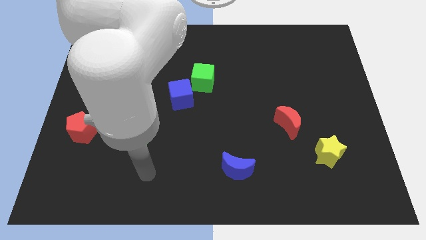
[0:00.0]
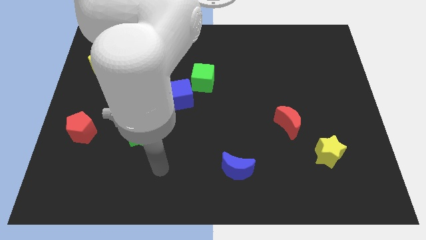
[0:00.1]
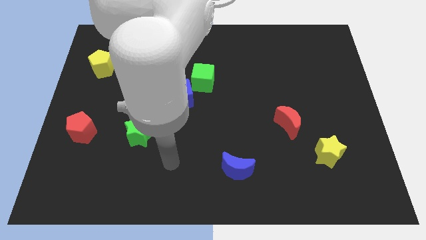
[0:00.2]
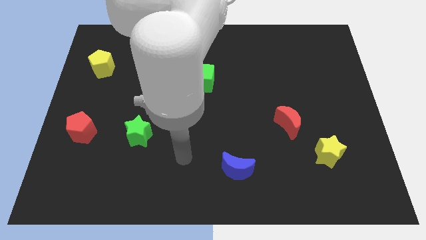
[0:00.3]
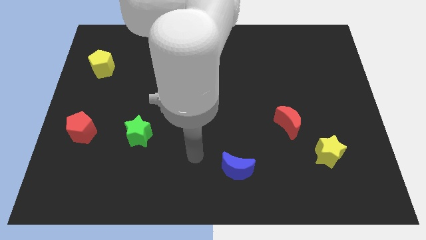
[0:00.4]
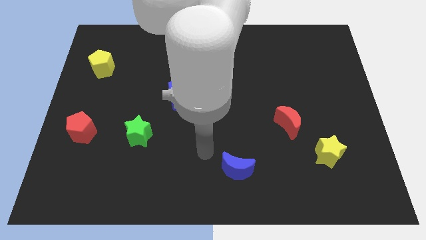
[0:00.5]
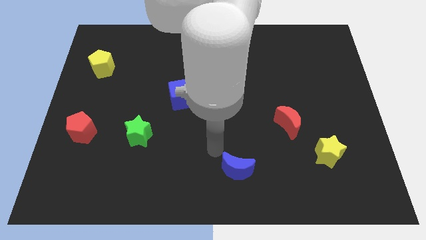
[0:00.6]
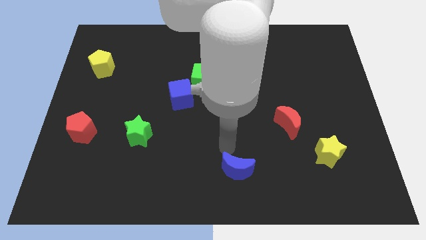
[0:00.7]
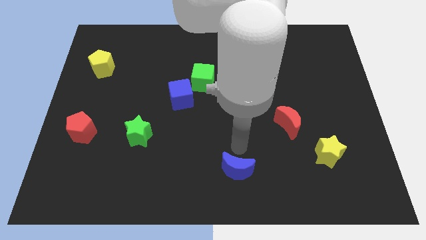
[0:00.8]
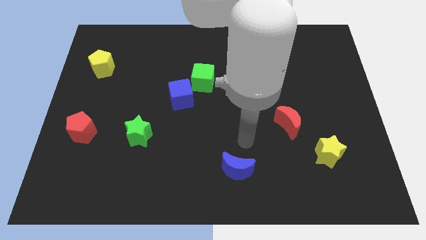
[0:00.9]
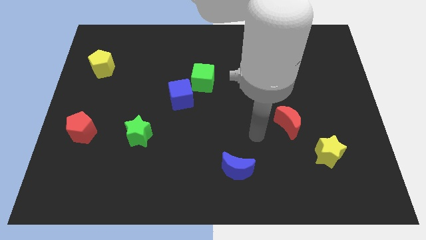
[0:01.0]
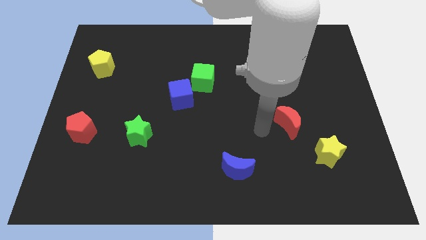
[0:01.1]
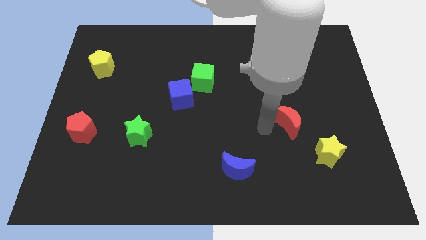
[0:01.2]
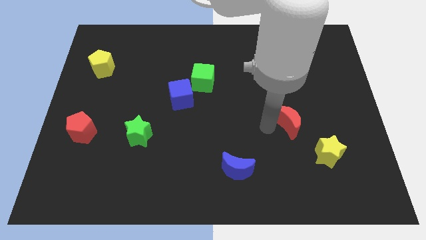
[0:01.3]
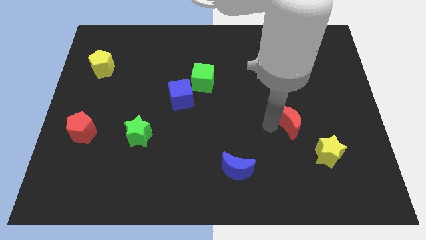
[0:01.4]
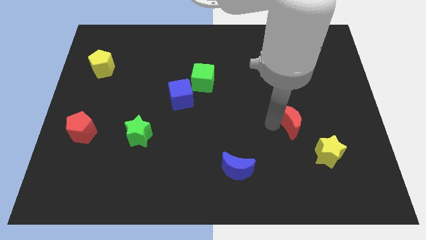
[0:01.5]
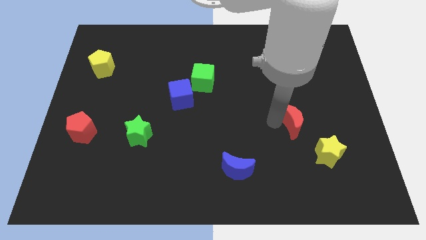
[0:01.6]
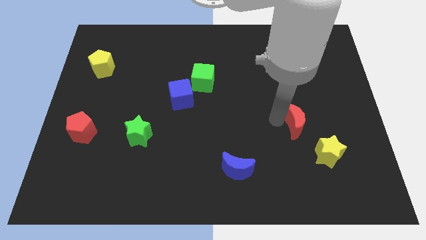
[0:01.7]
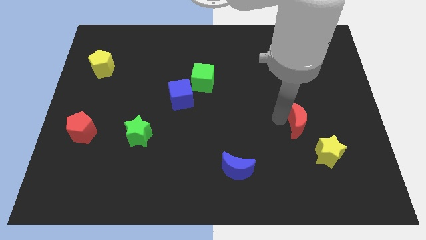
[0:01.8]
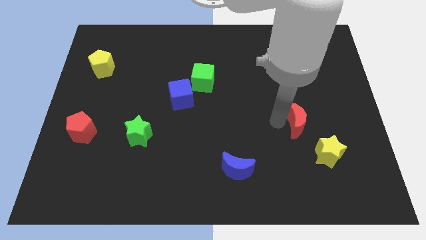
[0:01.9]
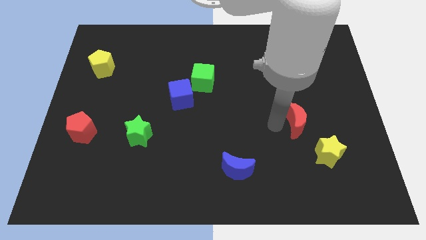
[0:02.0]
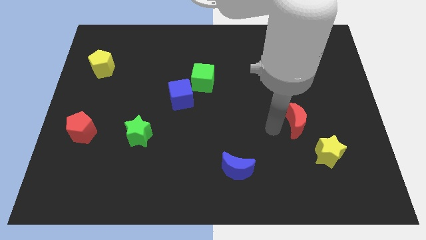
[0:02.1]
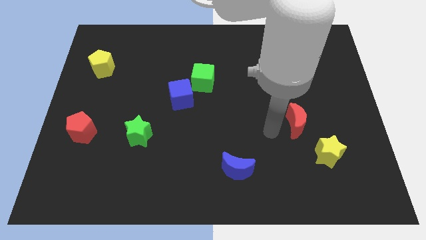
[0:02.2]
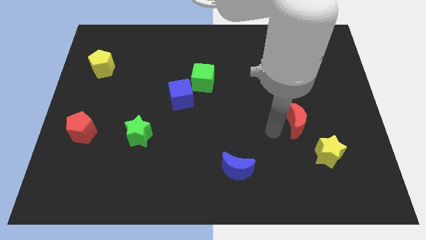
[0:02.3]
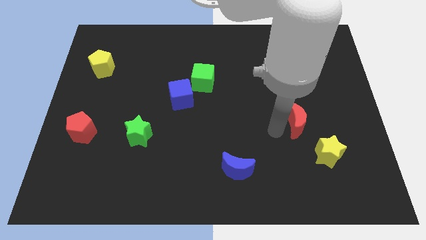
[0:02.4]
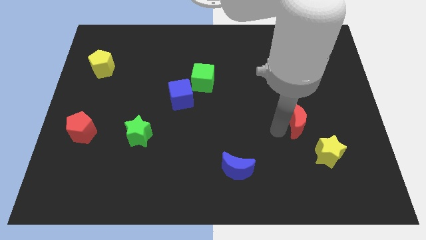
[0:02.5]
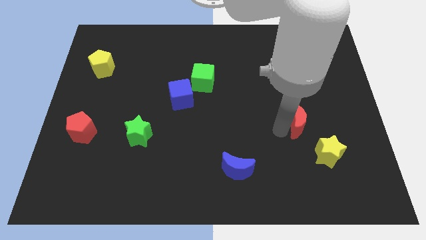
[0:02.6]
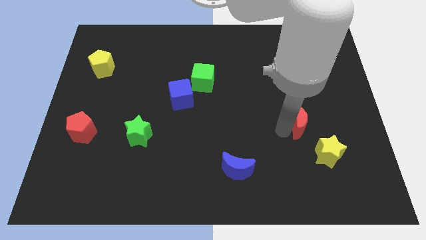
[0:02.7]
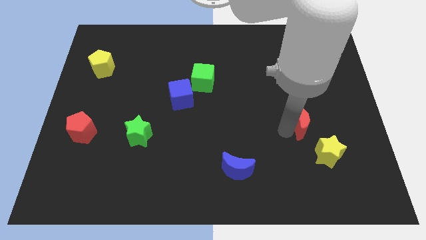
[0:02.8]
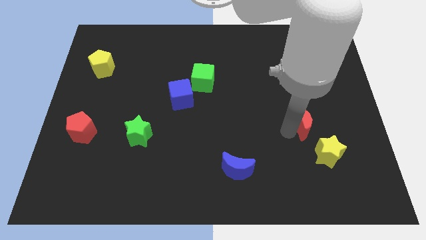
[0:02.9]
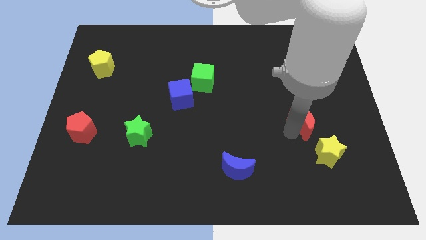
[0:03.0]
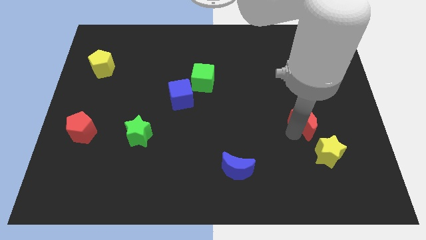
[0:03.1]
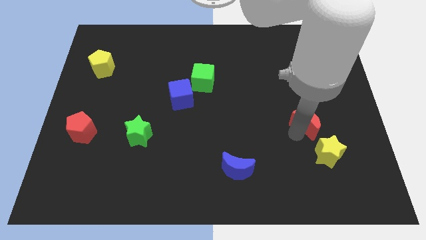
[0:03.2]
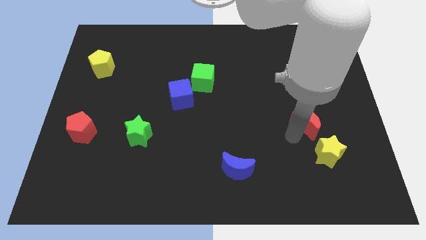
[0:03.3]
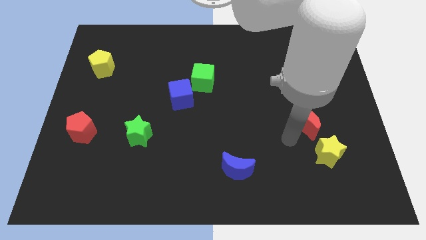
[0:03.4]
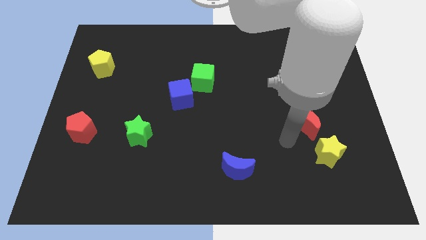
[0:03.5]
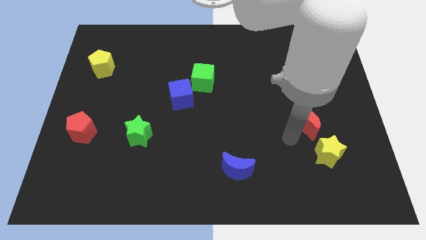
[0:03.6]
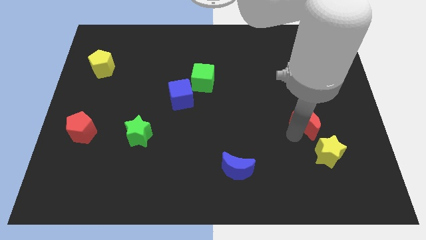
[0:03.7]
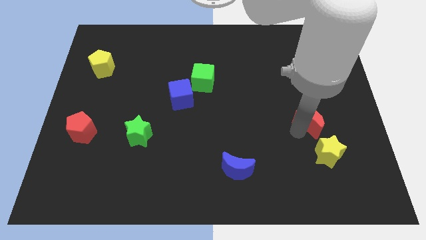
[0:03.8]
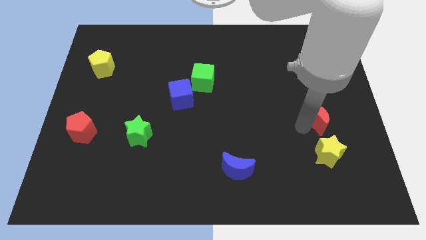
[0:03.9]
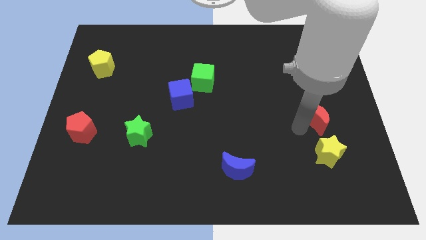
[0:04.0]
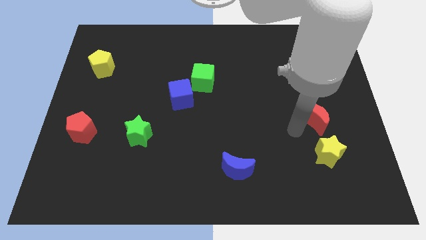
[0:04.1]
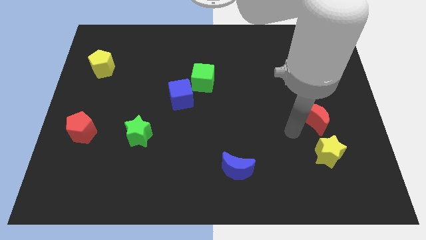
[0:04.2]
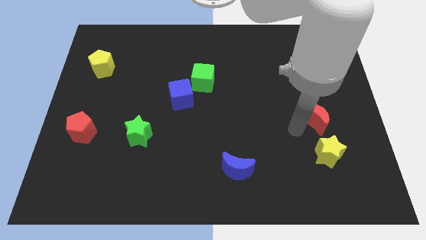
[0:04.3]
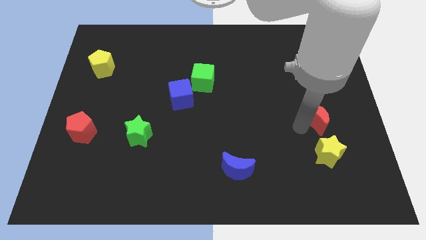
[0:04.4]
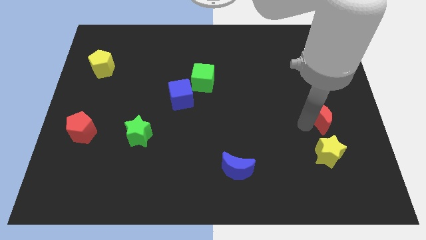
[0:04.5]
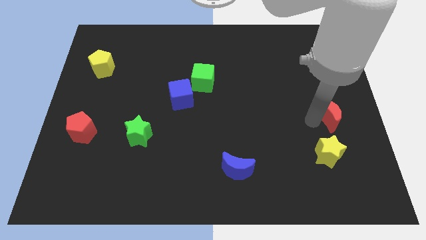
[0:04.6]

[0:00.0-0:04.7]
push the red moon to the right side

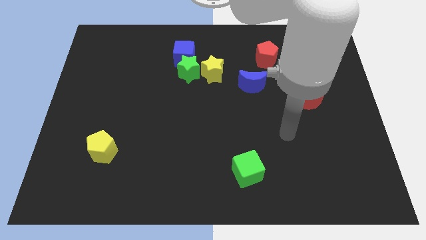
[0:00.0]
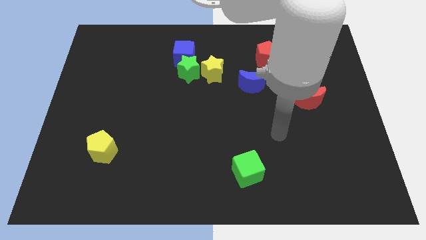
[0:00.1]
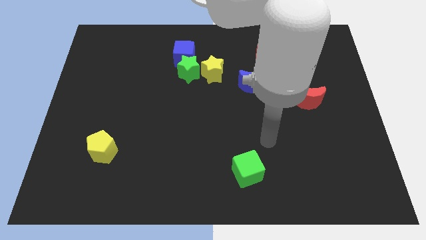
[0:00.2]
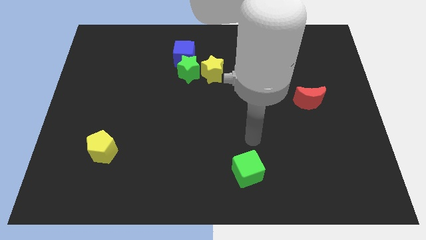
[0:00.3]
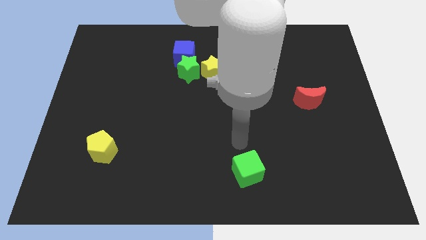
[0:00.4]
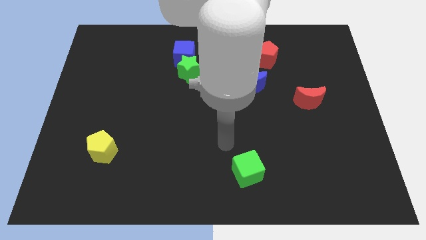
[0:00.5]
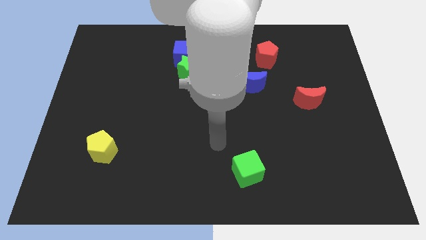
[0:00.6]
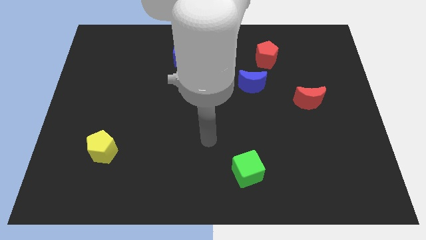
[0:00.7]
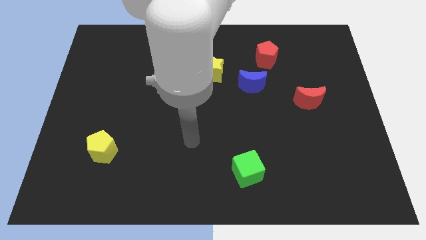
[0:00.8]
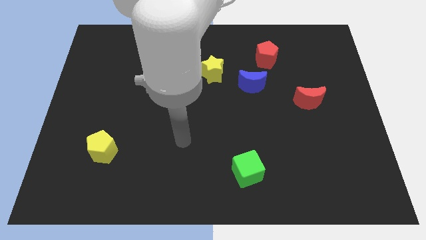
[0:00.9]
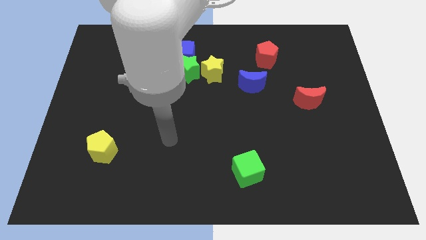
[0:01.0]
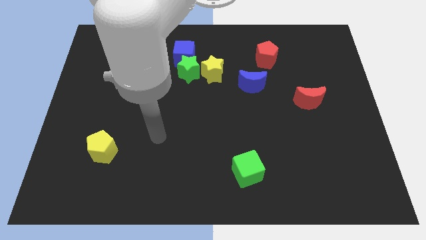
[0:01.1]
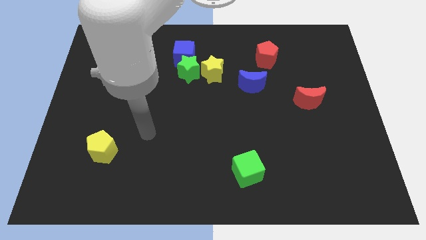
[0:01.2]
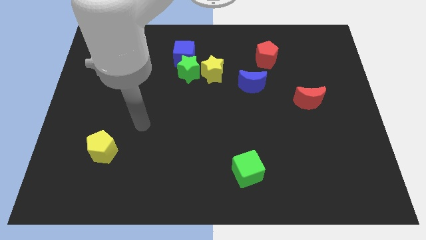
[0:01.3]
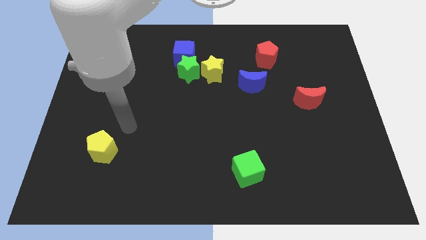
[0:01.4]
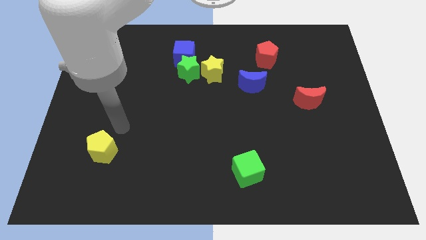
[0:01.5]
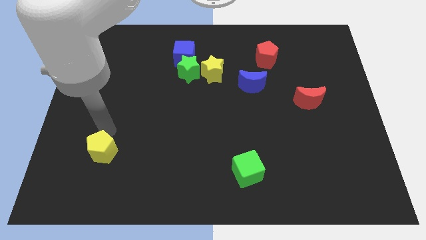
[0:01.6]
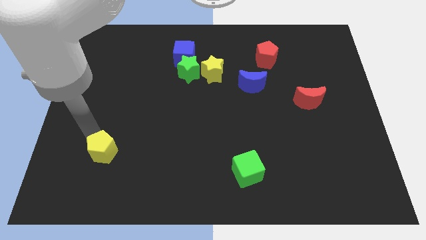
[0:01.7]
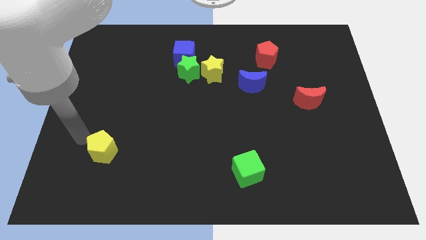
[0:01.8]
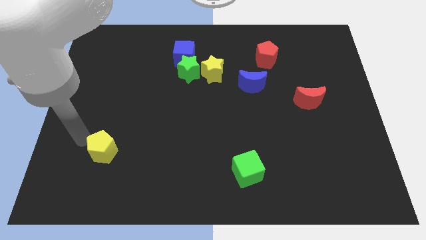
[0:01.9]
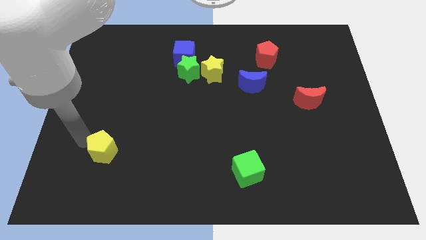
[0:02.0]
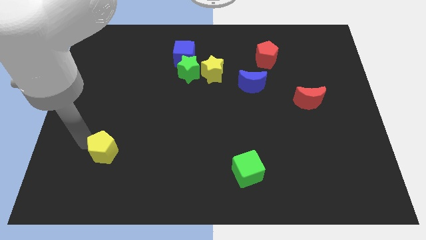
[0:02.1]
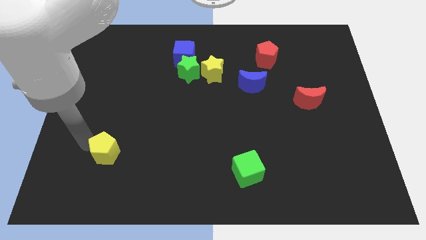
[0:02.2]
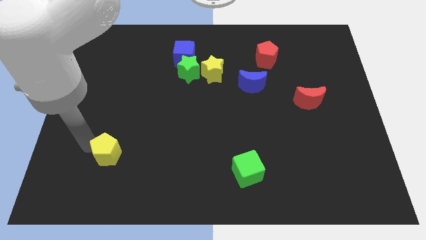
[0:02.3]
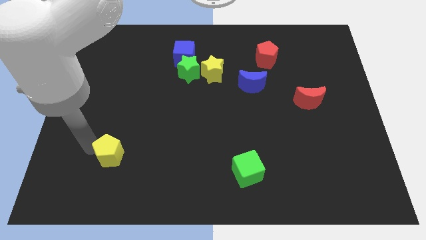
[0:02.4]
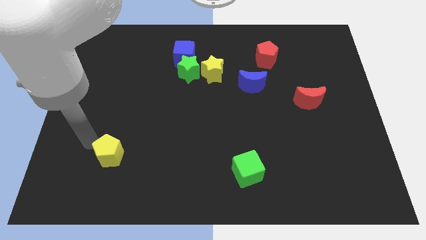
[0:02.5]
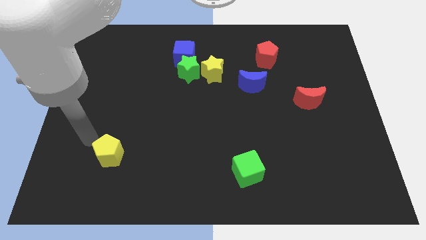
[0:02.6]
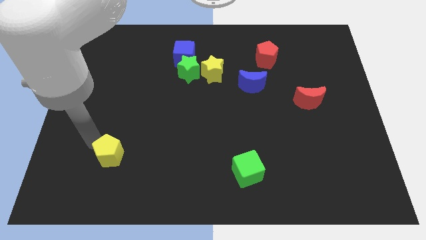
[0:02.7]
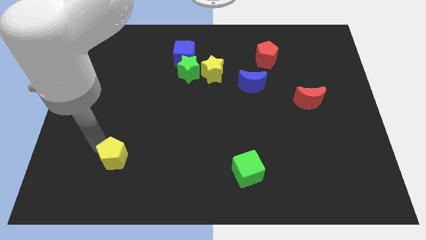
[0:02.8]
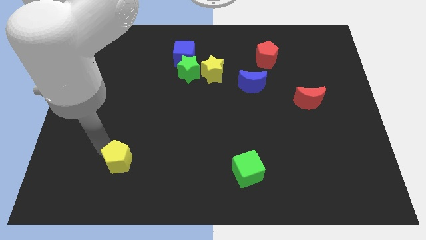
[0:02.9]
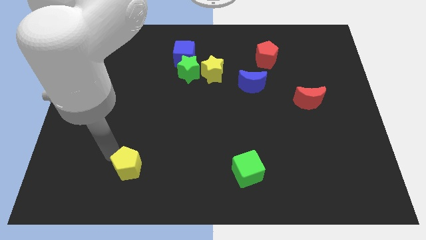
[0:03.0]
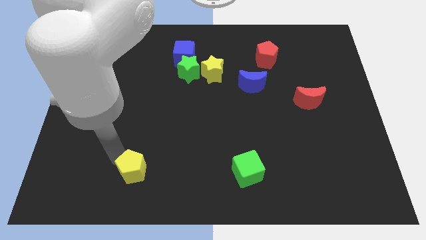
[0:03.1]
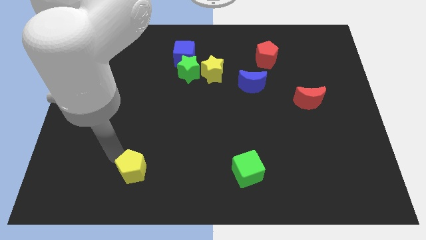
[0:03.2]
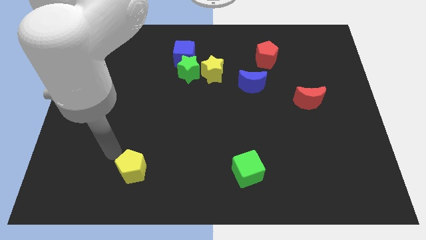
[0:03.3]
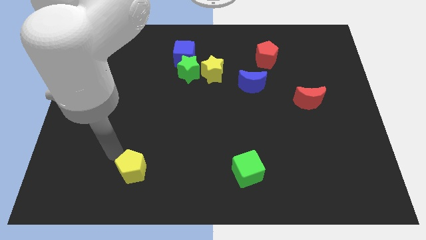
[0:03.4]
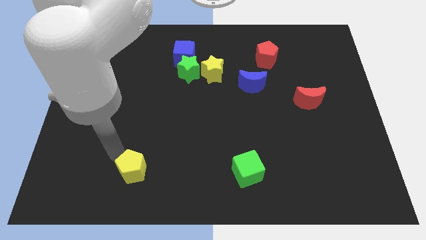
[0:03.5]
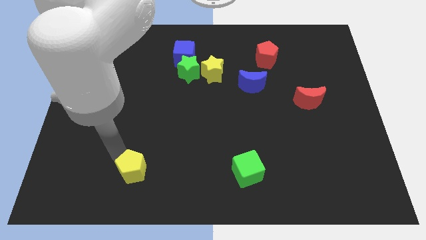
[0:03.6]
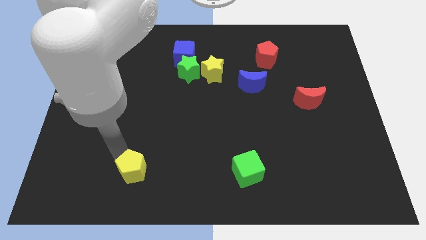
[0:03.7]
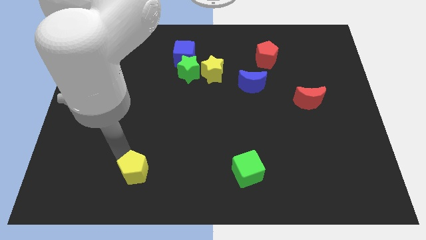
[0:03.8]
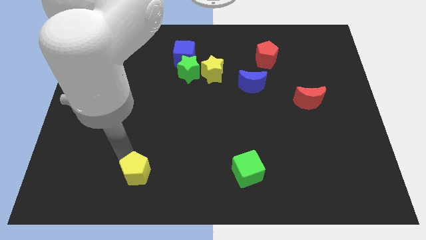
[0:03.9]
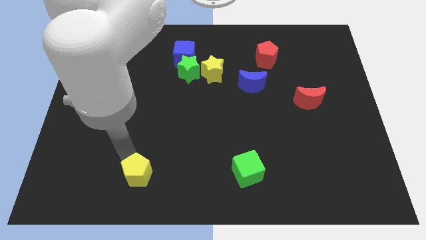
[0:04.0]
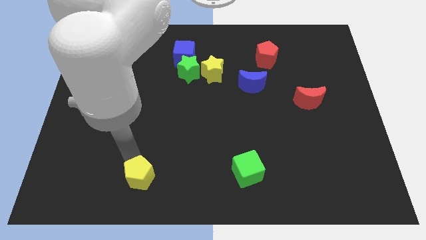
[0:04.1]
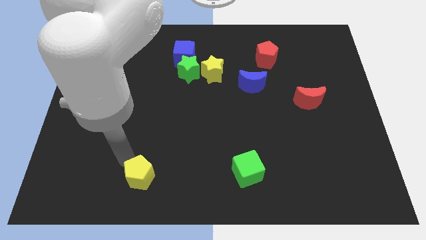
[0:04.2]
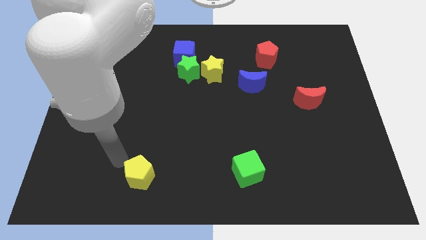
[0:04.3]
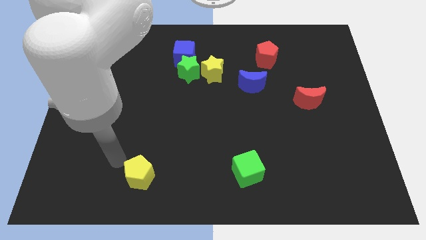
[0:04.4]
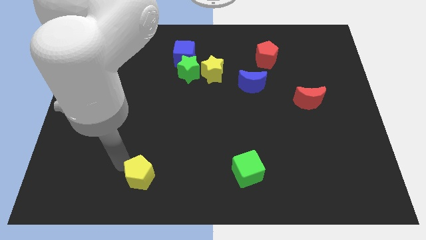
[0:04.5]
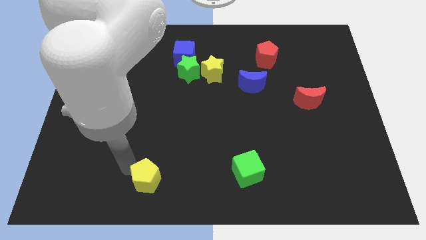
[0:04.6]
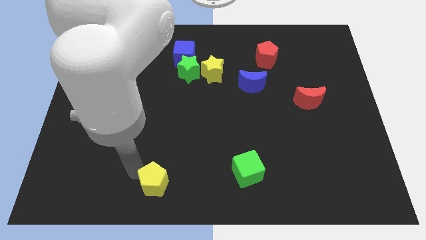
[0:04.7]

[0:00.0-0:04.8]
move the yellow pentagon to the bottom side
